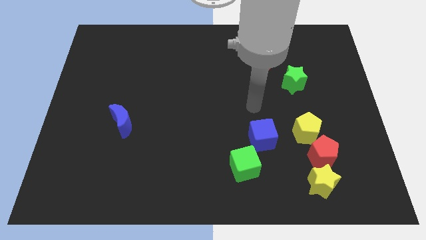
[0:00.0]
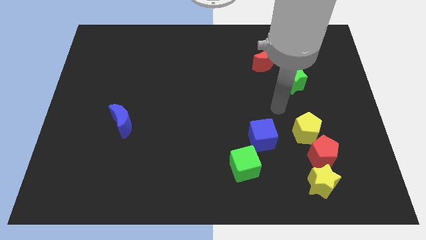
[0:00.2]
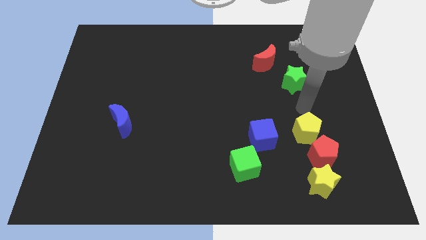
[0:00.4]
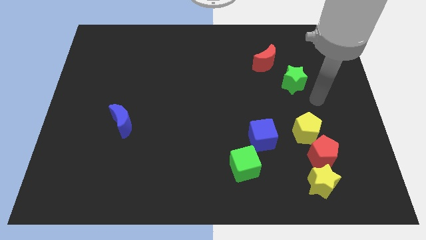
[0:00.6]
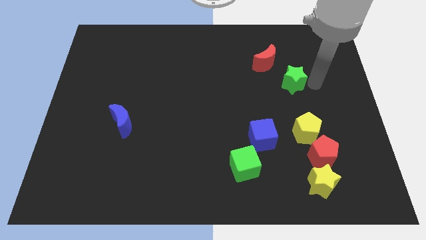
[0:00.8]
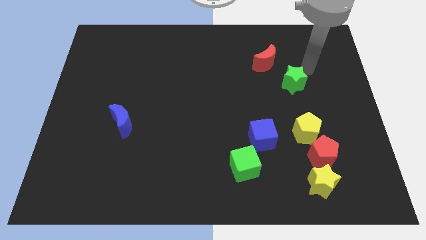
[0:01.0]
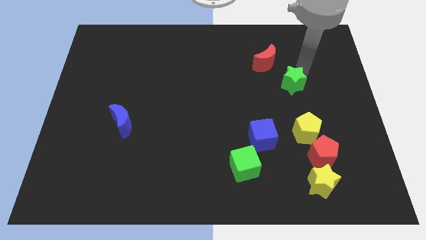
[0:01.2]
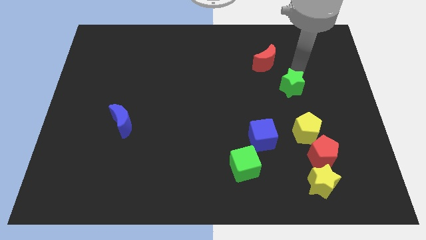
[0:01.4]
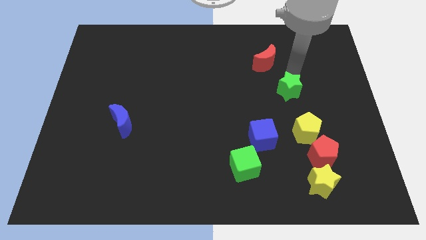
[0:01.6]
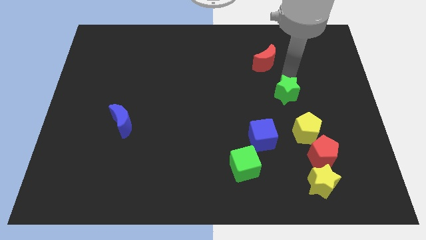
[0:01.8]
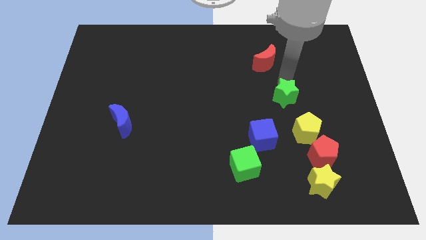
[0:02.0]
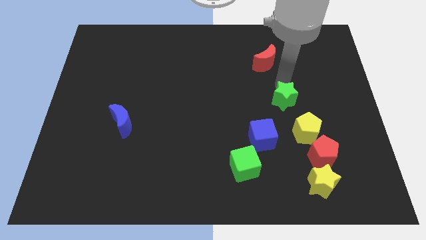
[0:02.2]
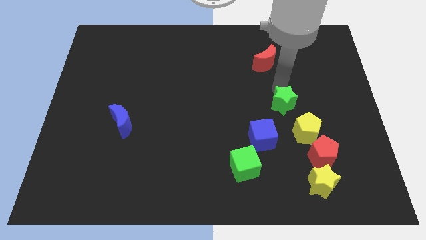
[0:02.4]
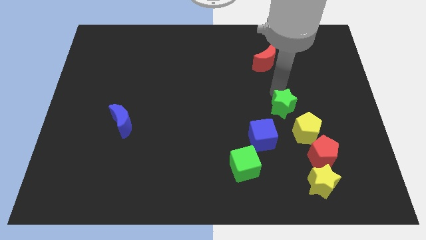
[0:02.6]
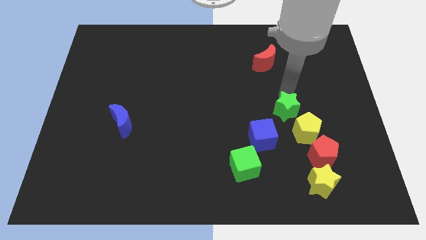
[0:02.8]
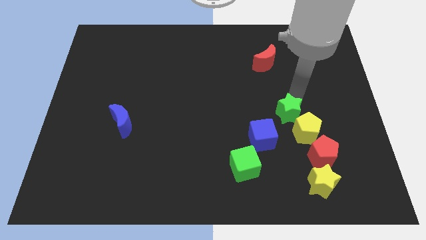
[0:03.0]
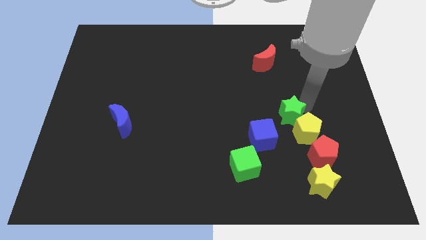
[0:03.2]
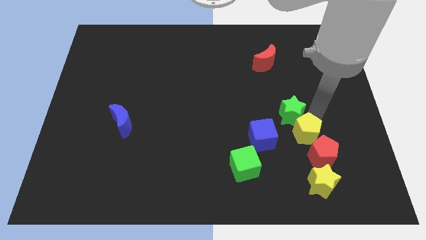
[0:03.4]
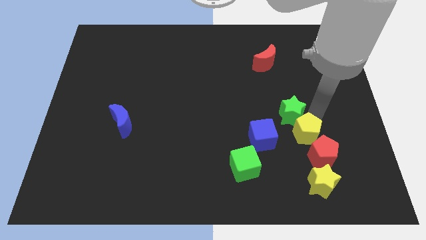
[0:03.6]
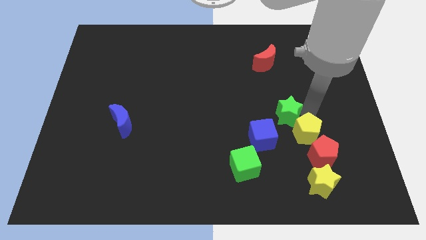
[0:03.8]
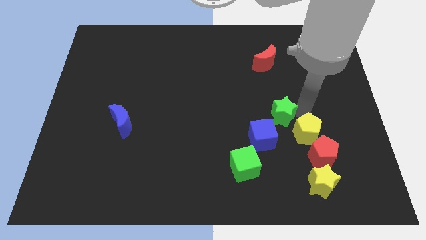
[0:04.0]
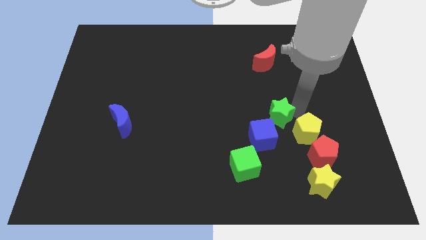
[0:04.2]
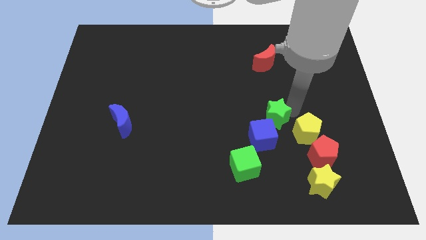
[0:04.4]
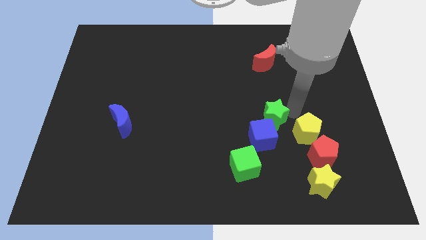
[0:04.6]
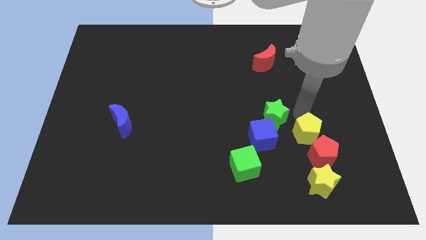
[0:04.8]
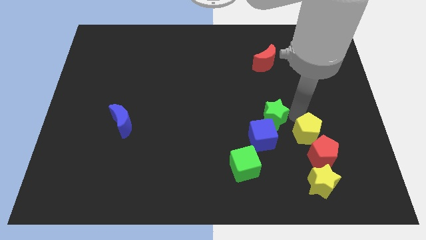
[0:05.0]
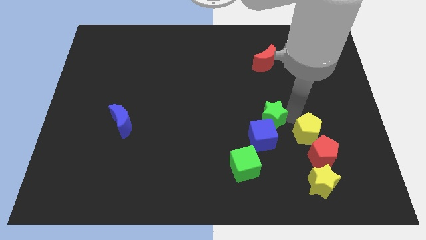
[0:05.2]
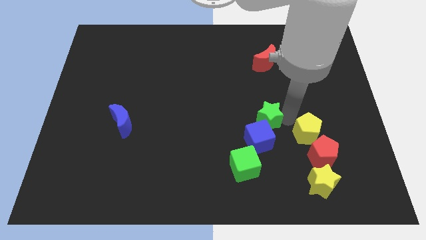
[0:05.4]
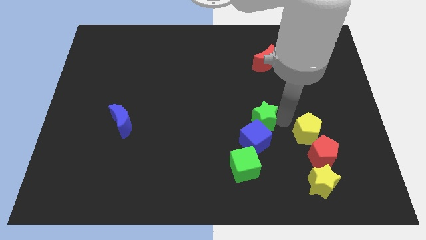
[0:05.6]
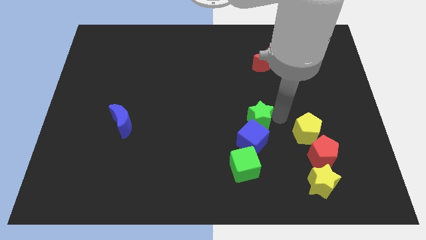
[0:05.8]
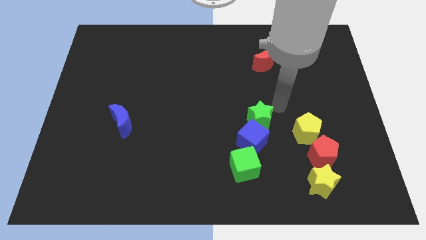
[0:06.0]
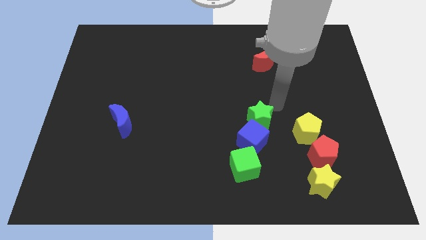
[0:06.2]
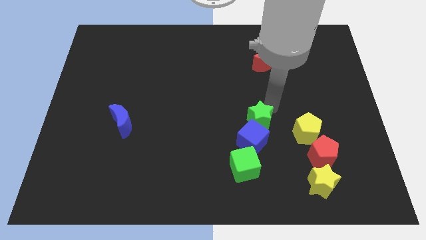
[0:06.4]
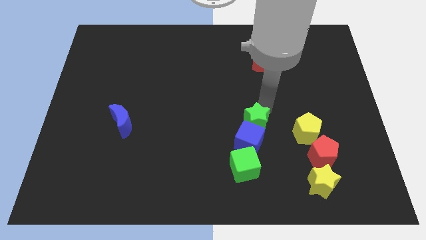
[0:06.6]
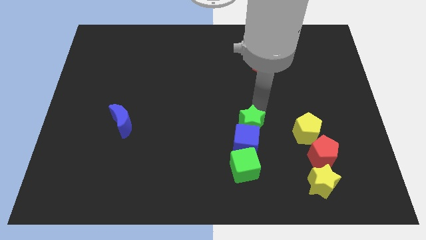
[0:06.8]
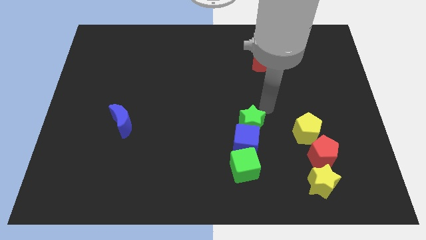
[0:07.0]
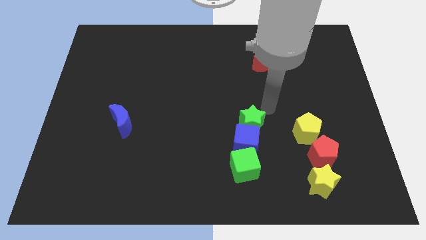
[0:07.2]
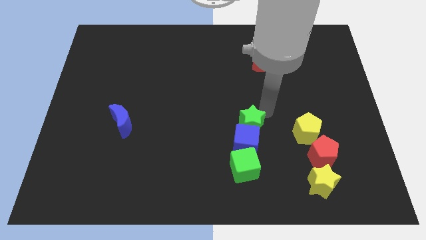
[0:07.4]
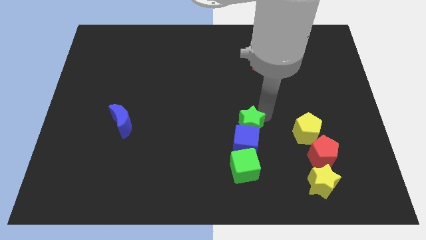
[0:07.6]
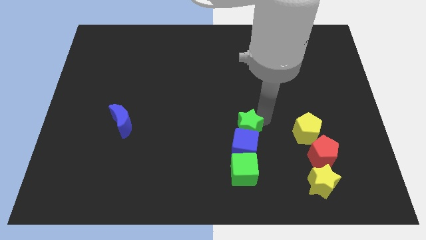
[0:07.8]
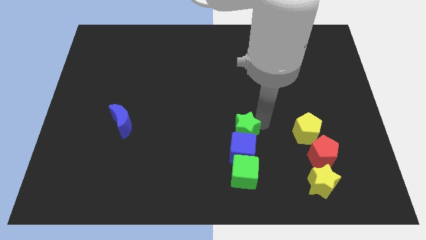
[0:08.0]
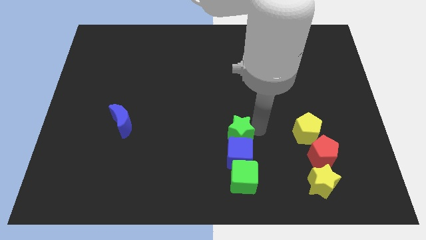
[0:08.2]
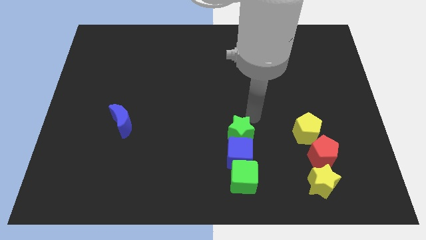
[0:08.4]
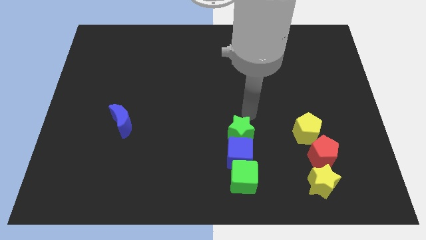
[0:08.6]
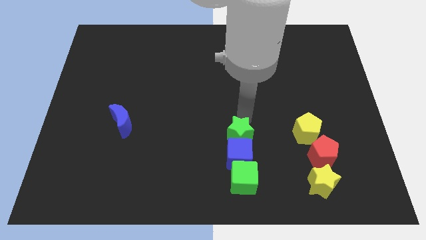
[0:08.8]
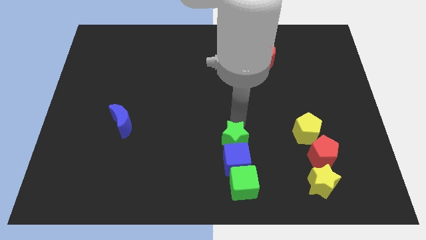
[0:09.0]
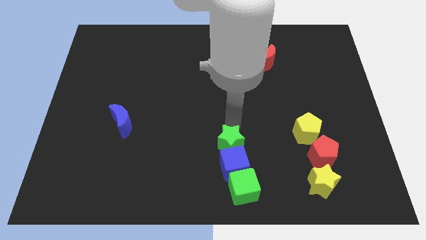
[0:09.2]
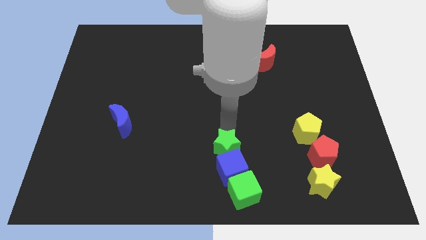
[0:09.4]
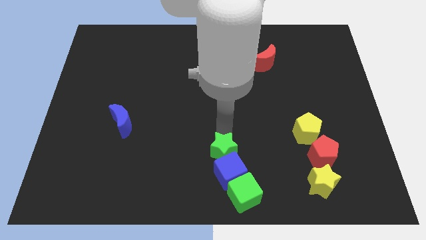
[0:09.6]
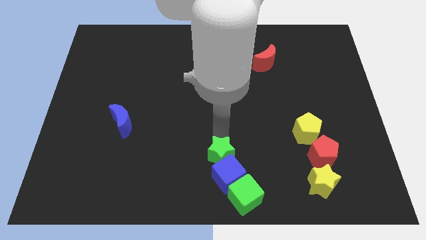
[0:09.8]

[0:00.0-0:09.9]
put the green star to the bottom side

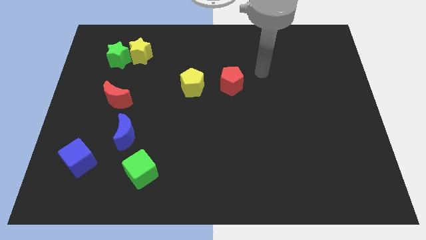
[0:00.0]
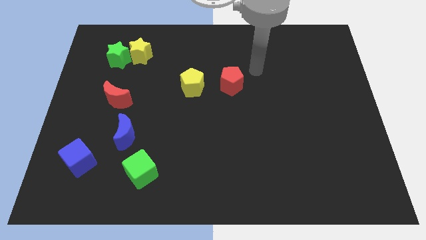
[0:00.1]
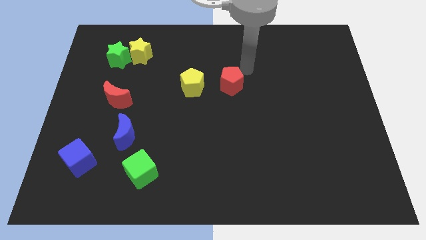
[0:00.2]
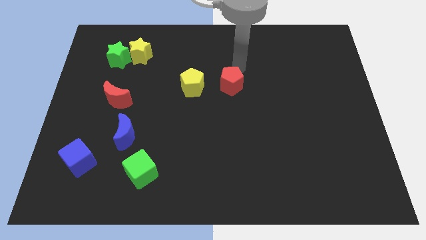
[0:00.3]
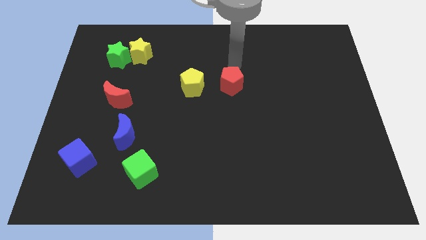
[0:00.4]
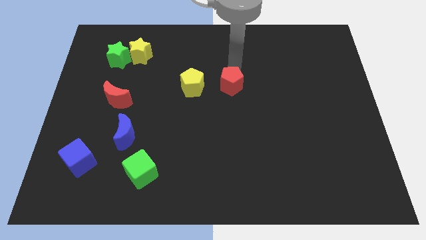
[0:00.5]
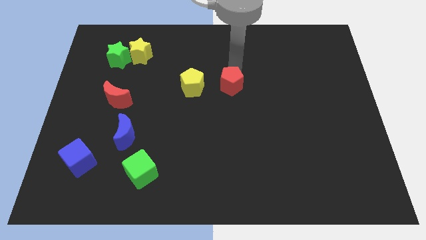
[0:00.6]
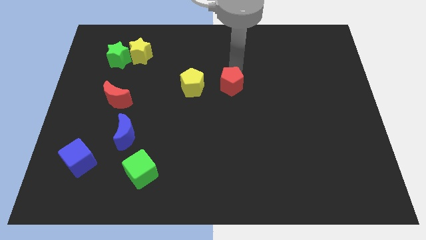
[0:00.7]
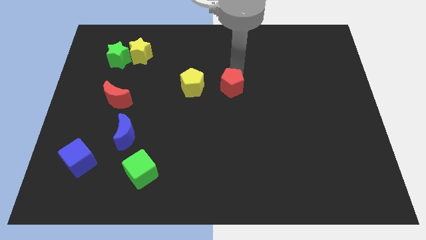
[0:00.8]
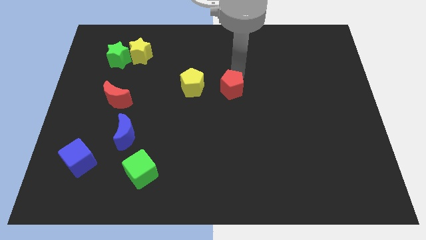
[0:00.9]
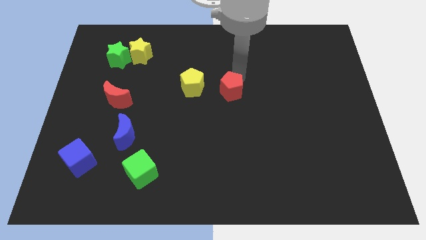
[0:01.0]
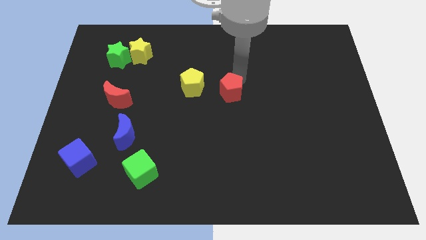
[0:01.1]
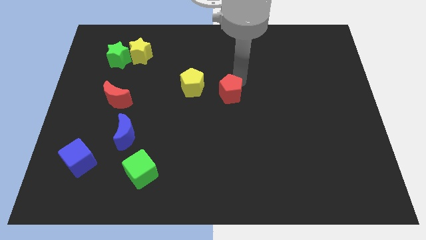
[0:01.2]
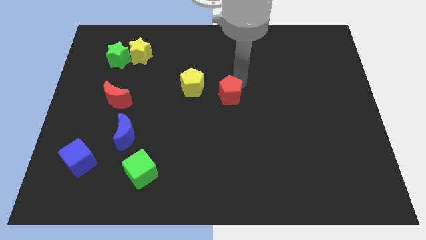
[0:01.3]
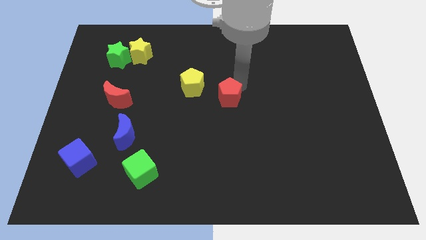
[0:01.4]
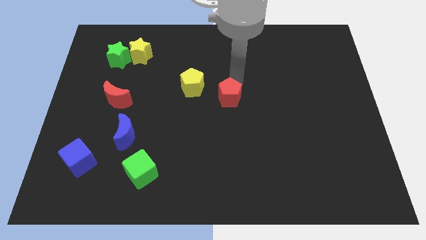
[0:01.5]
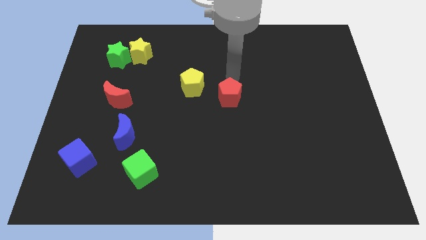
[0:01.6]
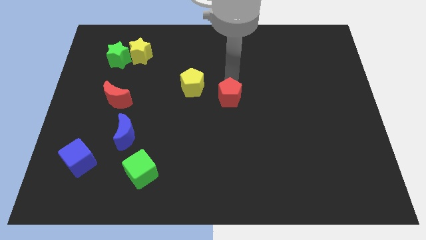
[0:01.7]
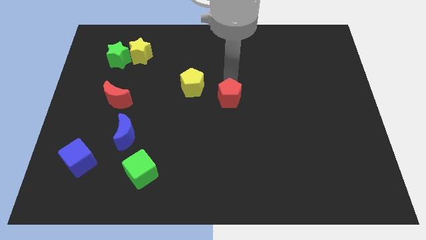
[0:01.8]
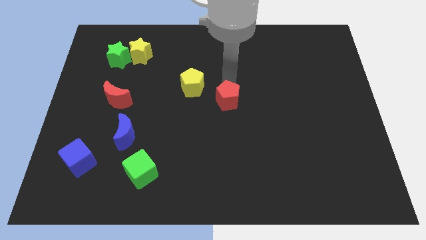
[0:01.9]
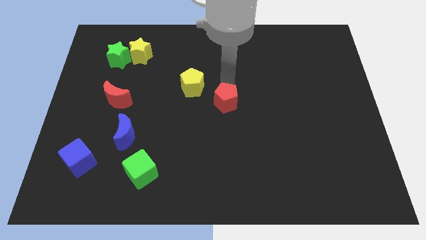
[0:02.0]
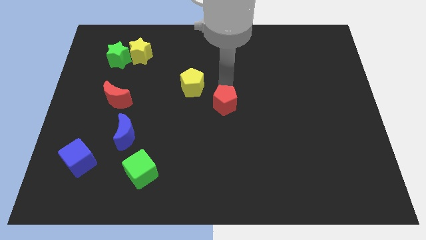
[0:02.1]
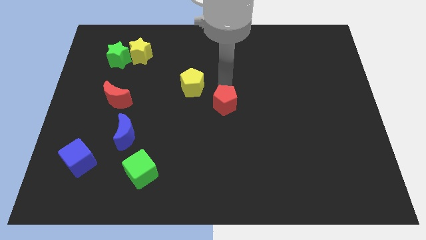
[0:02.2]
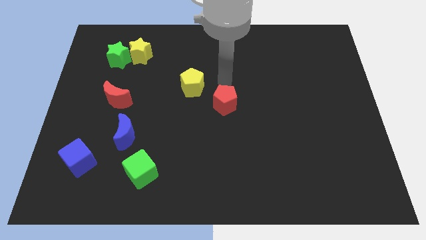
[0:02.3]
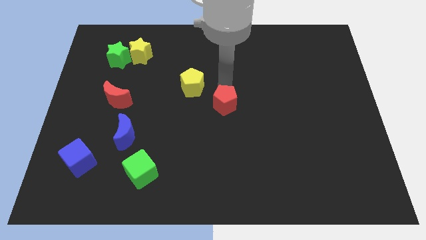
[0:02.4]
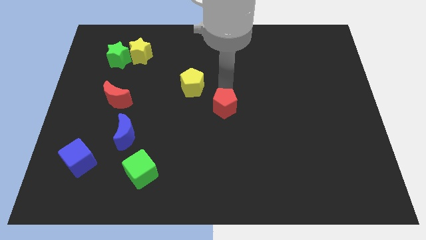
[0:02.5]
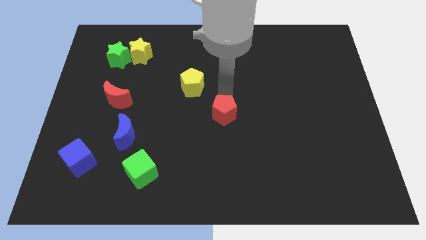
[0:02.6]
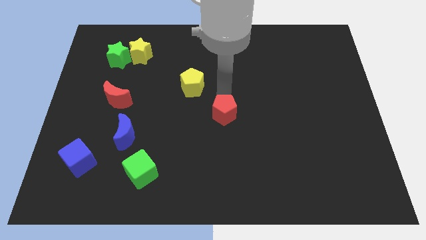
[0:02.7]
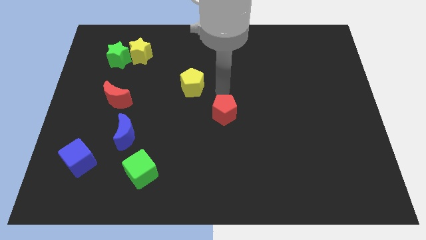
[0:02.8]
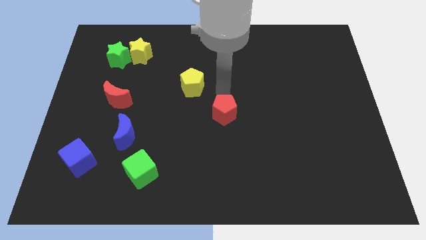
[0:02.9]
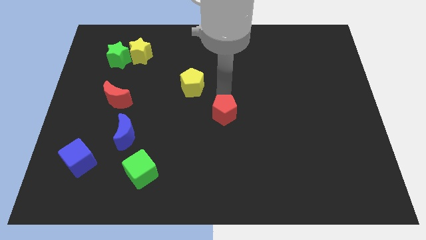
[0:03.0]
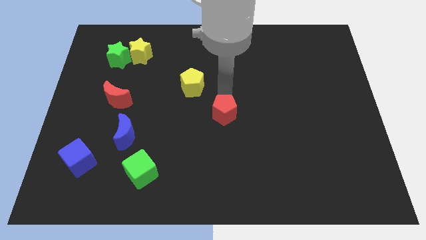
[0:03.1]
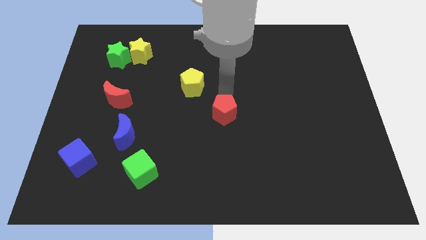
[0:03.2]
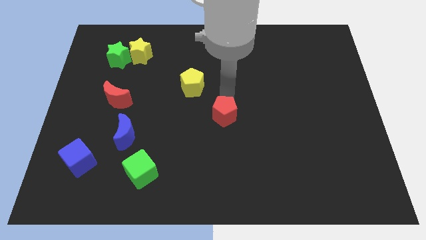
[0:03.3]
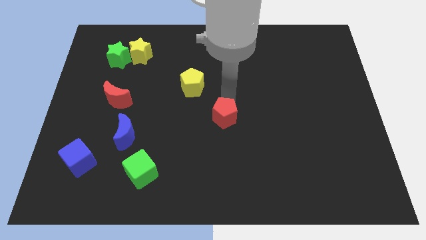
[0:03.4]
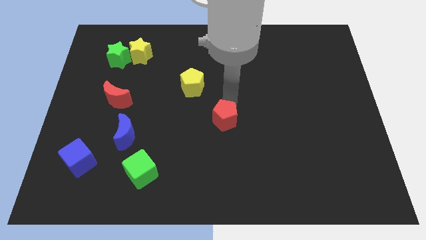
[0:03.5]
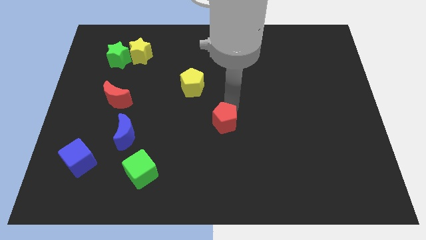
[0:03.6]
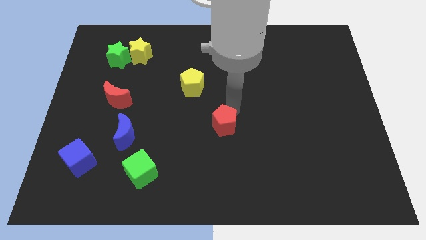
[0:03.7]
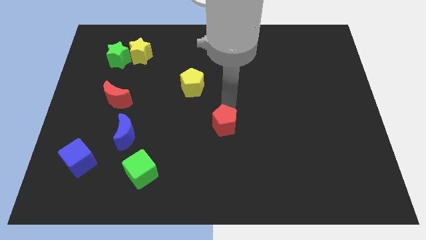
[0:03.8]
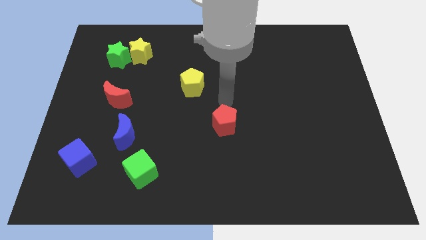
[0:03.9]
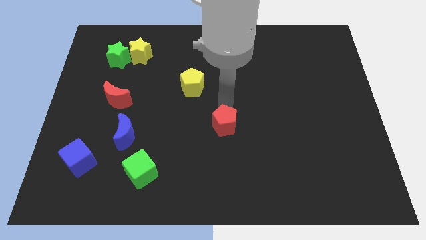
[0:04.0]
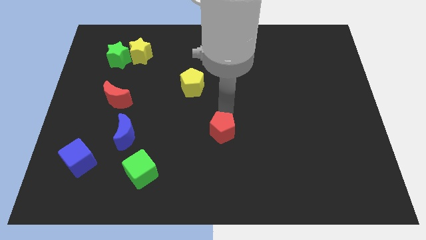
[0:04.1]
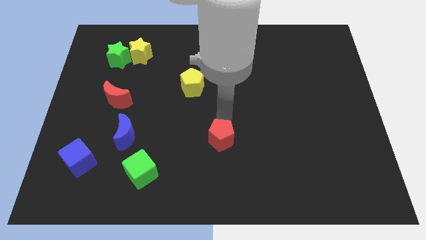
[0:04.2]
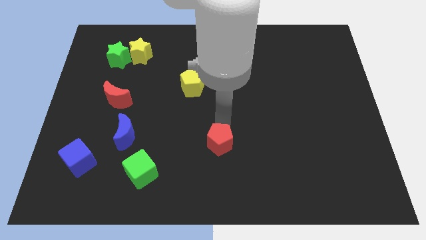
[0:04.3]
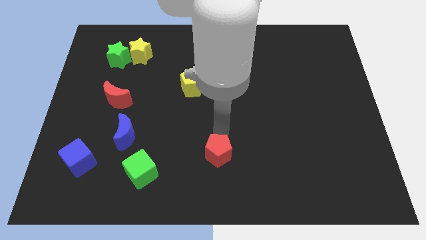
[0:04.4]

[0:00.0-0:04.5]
put the red pentagon to the bottom
